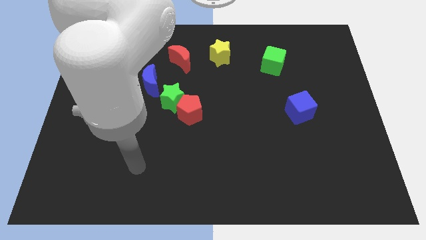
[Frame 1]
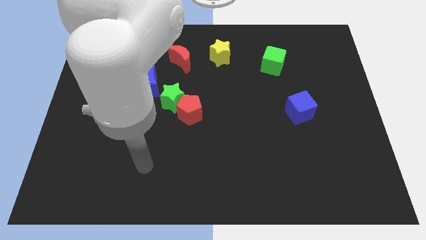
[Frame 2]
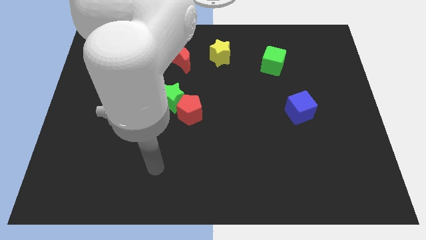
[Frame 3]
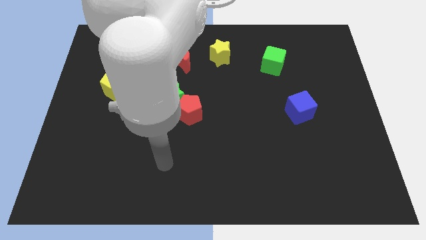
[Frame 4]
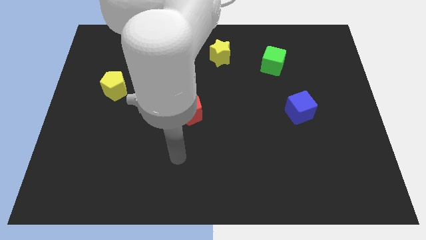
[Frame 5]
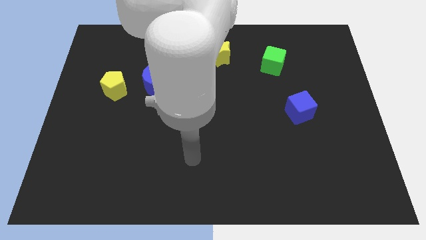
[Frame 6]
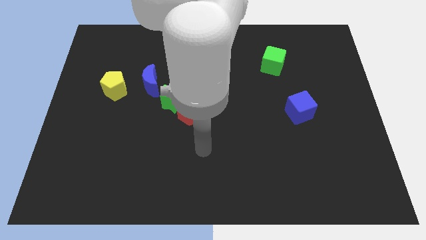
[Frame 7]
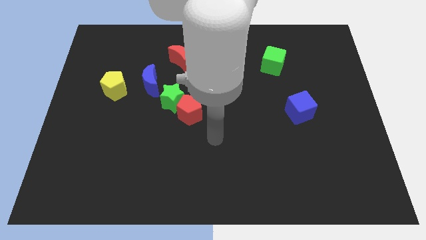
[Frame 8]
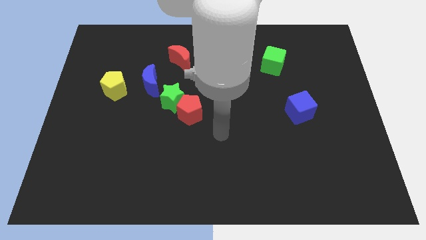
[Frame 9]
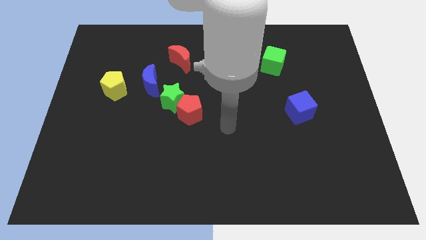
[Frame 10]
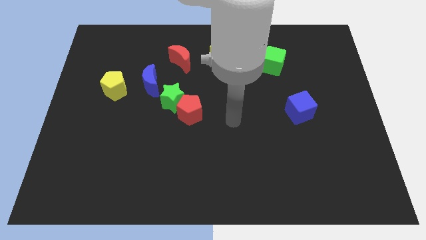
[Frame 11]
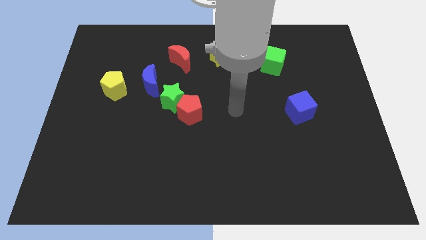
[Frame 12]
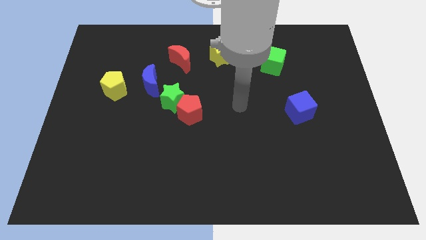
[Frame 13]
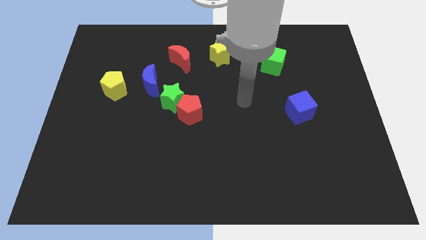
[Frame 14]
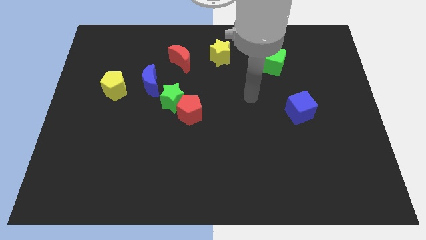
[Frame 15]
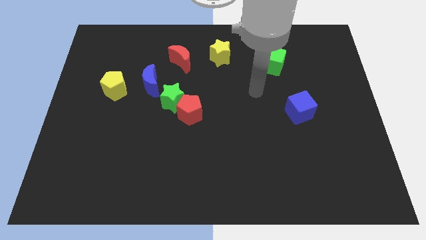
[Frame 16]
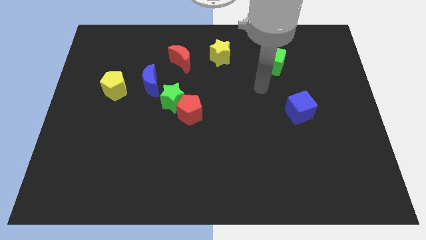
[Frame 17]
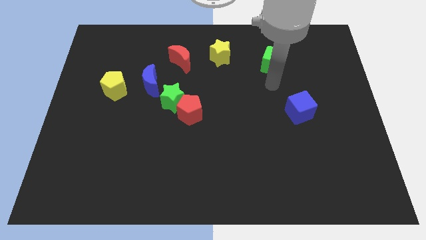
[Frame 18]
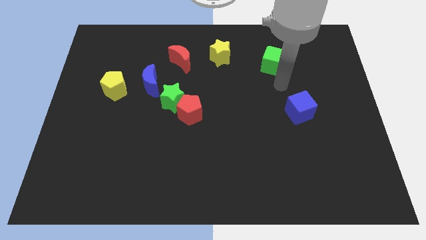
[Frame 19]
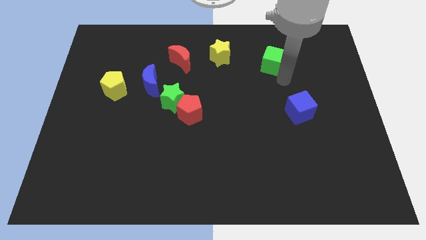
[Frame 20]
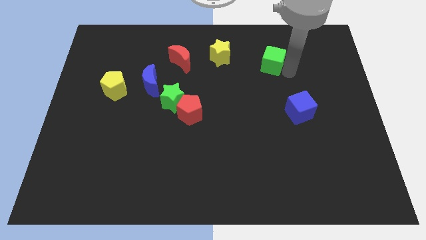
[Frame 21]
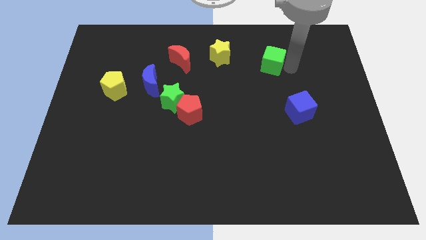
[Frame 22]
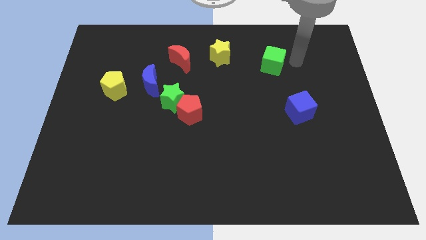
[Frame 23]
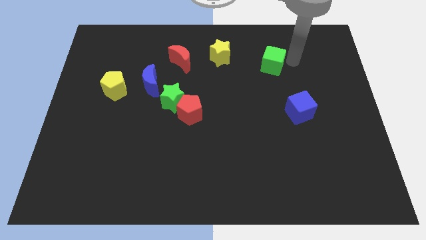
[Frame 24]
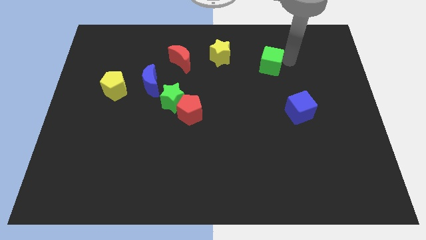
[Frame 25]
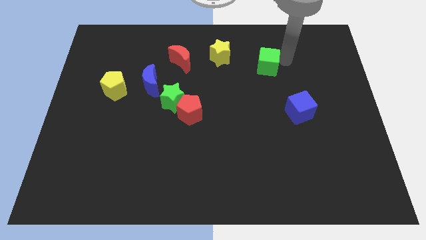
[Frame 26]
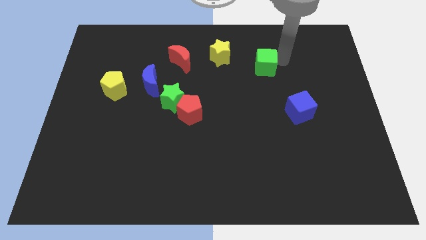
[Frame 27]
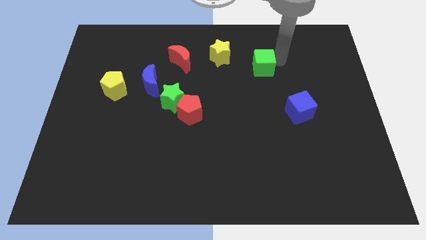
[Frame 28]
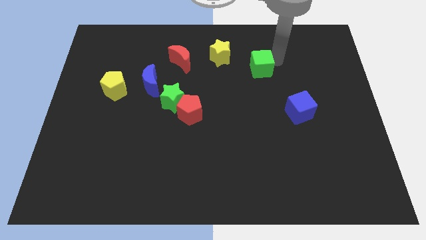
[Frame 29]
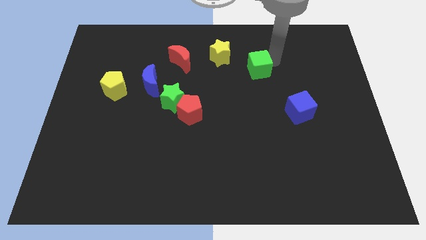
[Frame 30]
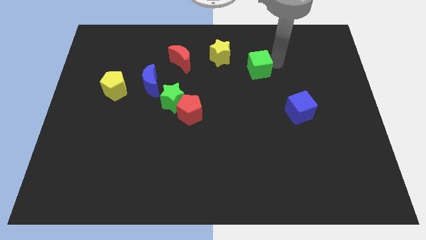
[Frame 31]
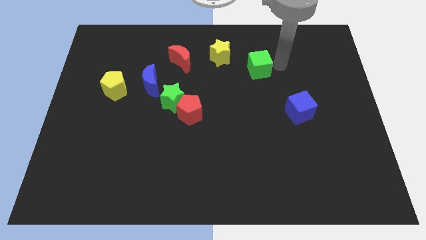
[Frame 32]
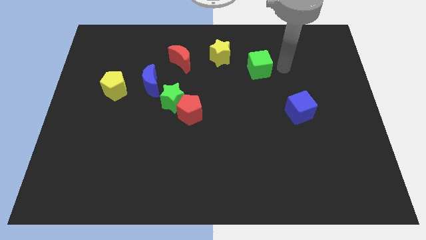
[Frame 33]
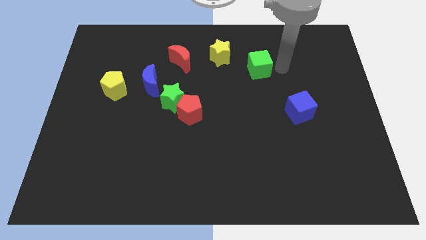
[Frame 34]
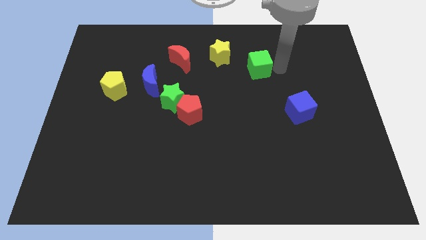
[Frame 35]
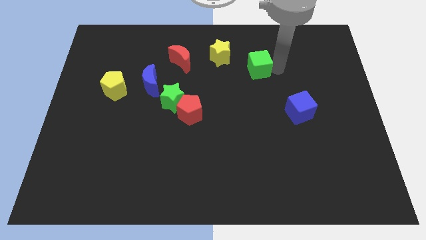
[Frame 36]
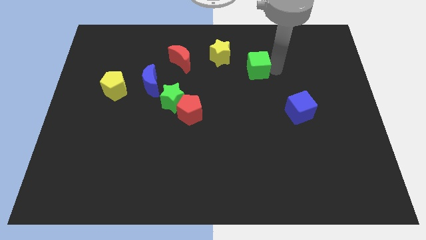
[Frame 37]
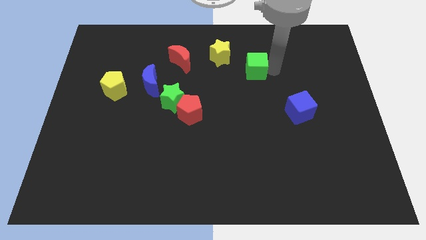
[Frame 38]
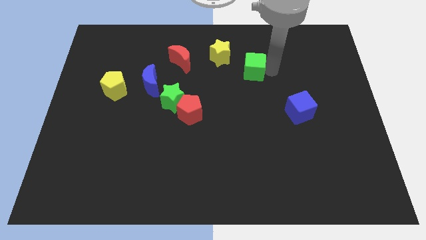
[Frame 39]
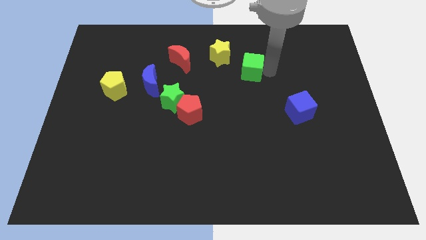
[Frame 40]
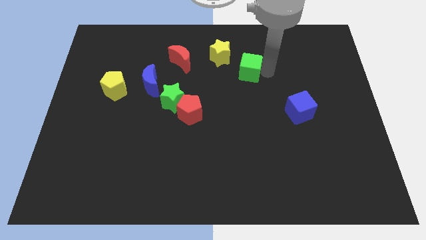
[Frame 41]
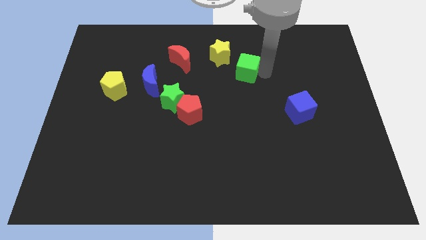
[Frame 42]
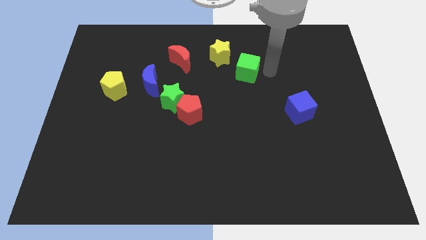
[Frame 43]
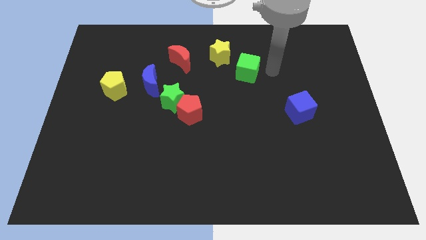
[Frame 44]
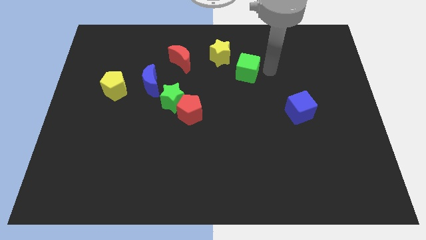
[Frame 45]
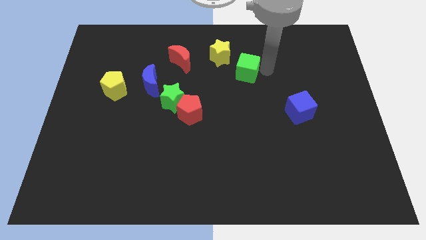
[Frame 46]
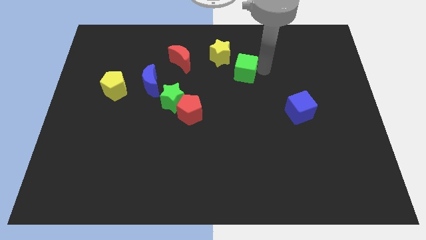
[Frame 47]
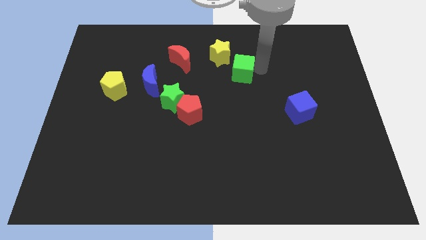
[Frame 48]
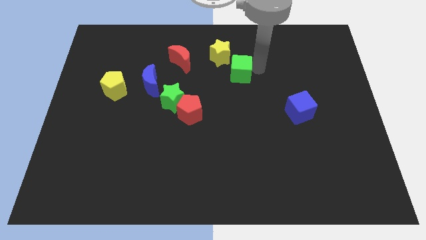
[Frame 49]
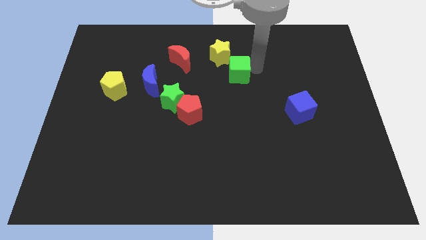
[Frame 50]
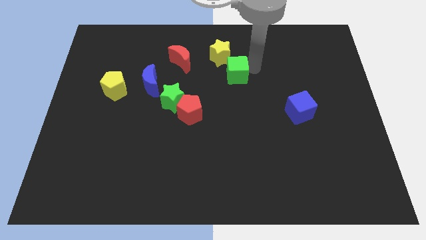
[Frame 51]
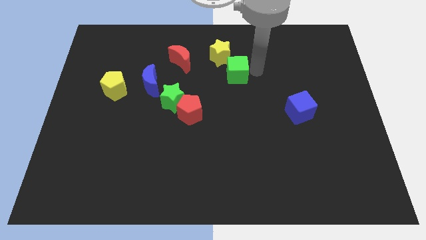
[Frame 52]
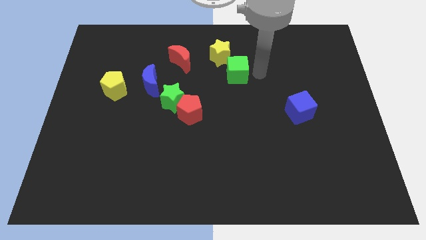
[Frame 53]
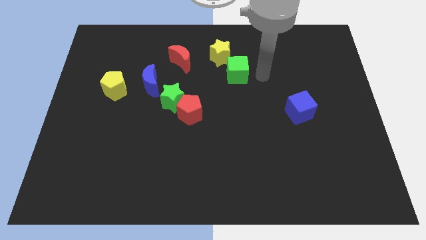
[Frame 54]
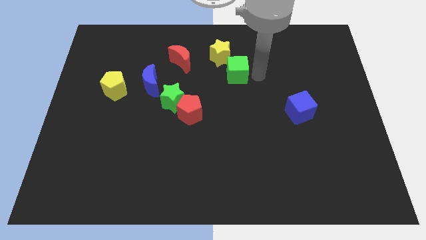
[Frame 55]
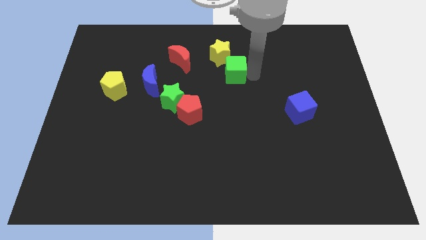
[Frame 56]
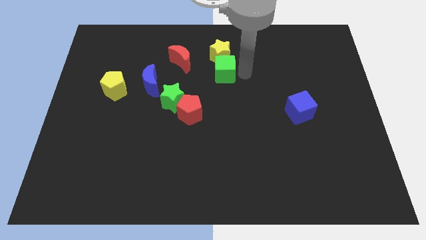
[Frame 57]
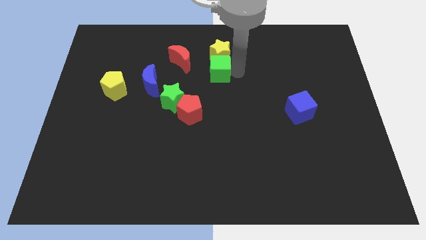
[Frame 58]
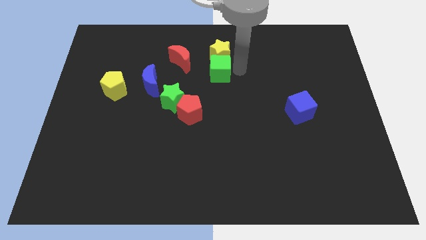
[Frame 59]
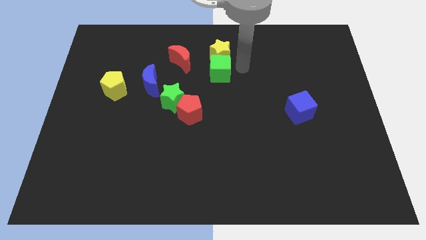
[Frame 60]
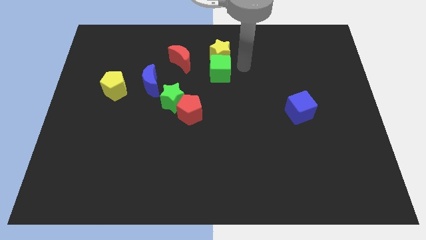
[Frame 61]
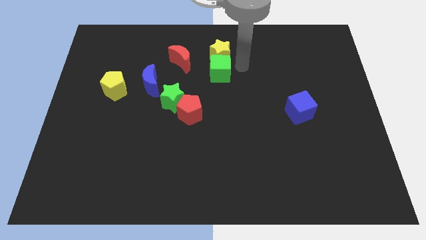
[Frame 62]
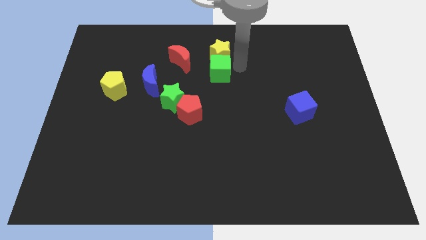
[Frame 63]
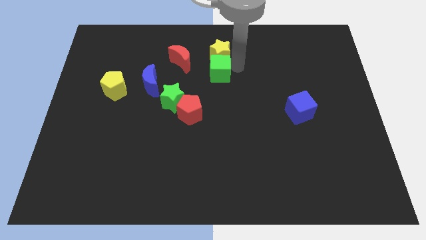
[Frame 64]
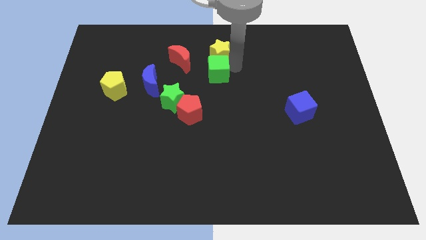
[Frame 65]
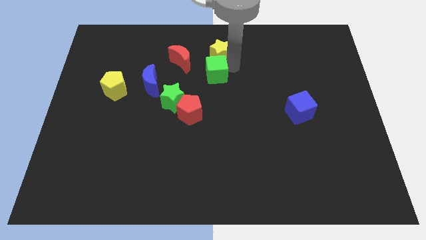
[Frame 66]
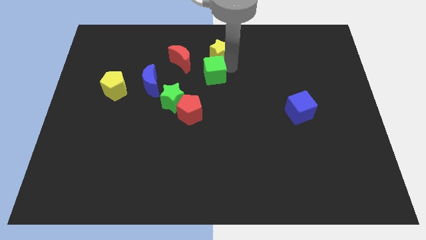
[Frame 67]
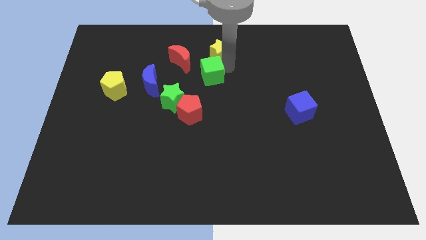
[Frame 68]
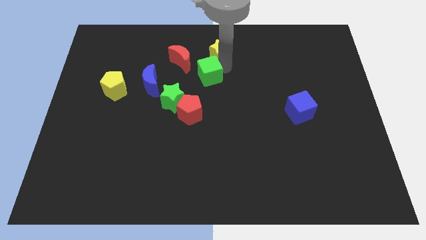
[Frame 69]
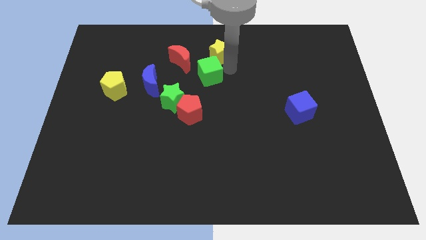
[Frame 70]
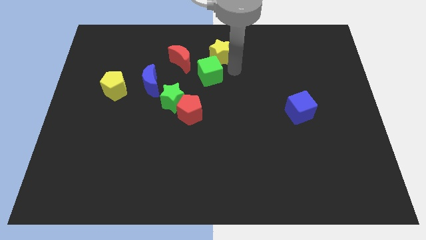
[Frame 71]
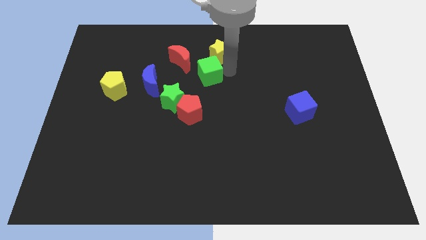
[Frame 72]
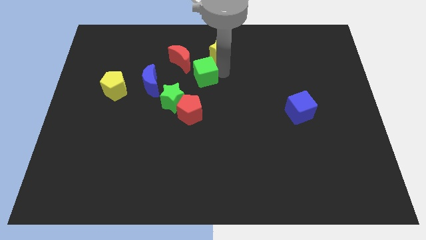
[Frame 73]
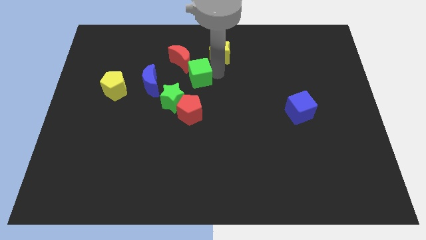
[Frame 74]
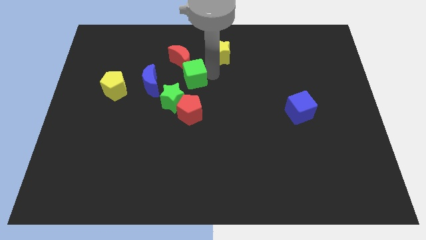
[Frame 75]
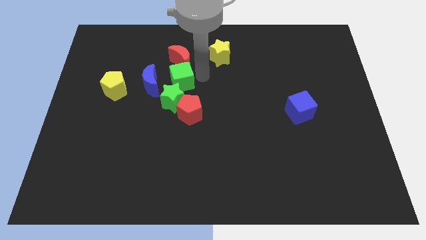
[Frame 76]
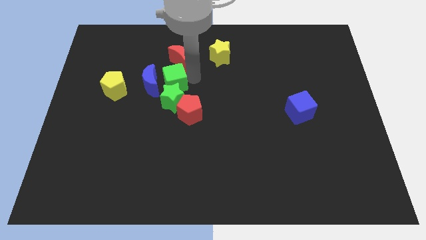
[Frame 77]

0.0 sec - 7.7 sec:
push the green cube towards the blue moon
